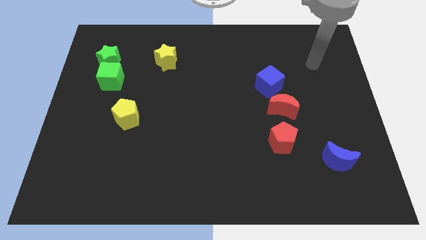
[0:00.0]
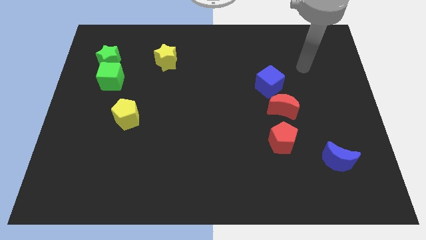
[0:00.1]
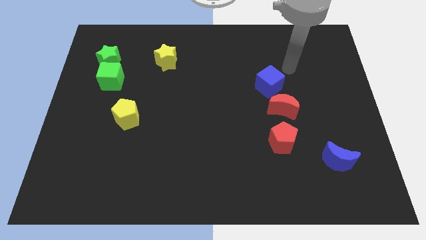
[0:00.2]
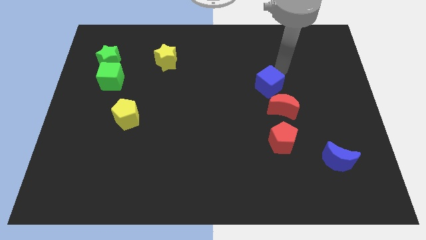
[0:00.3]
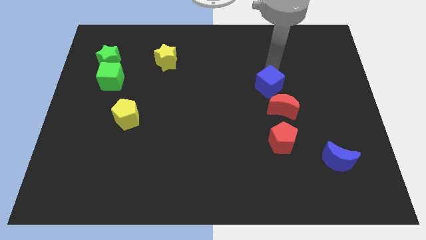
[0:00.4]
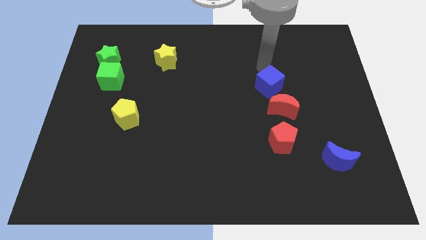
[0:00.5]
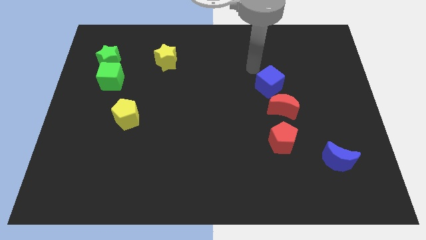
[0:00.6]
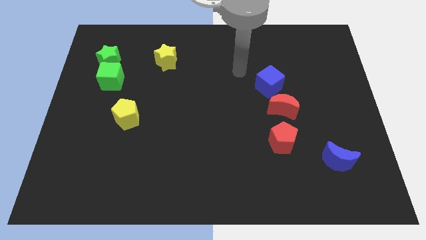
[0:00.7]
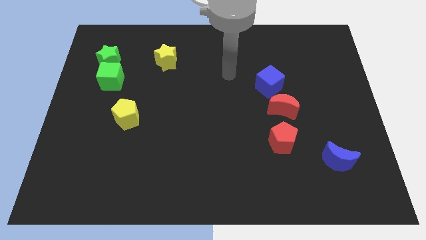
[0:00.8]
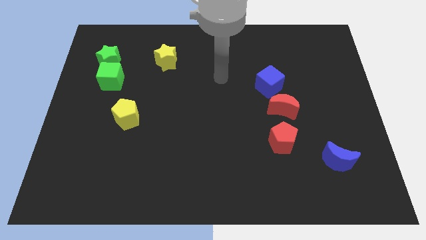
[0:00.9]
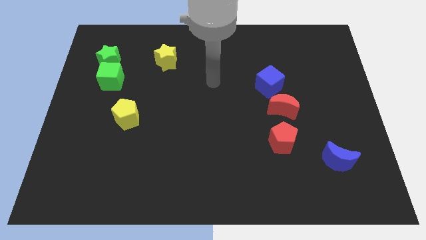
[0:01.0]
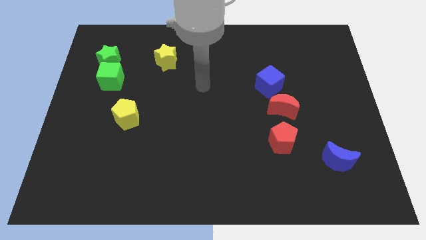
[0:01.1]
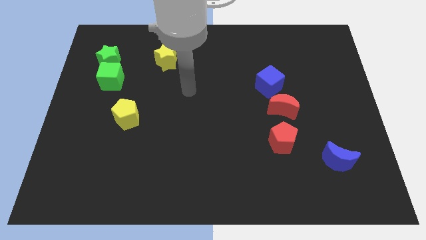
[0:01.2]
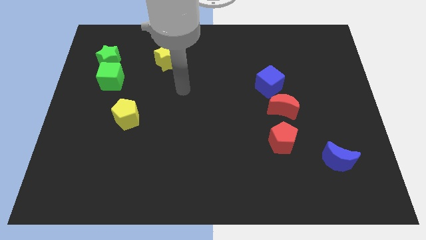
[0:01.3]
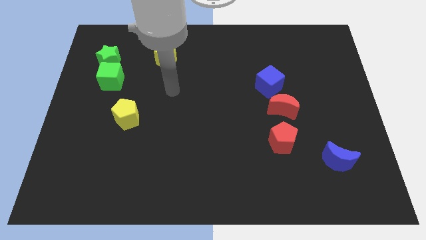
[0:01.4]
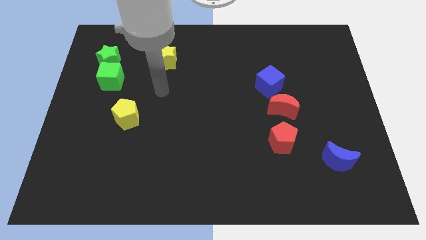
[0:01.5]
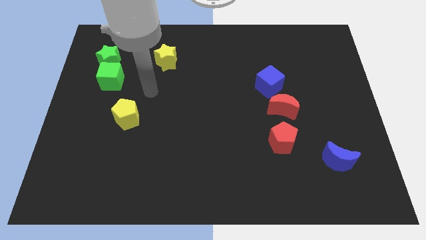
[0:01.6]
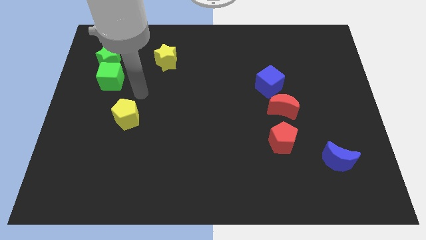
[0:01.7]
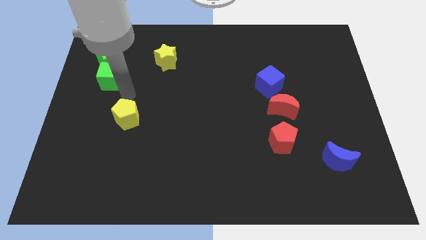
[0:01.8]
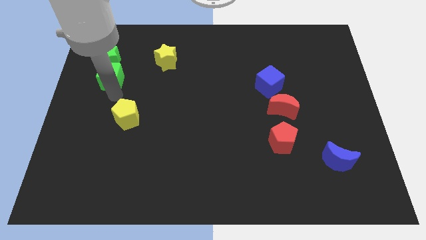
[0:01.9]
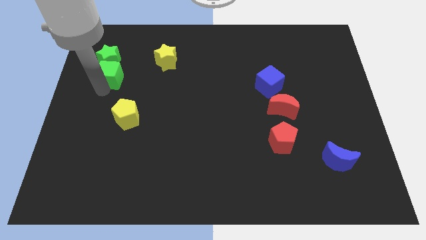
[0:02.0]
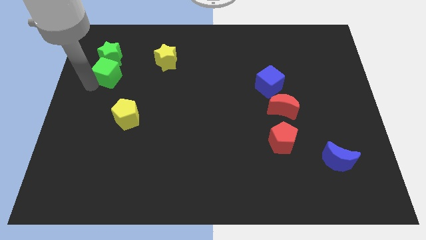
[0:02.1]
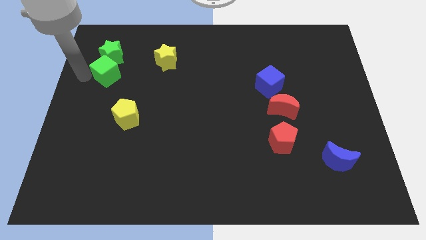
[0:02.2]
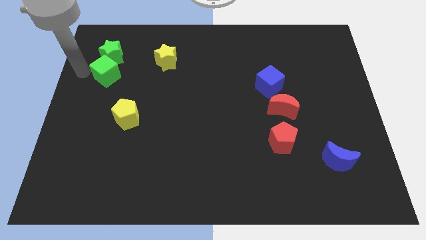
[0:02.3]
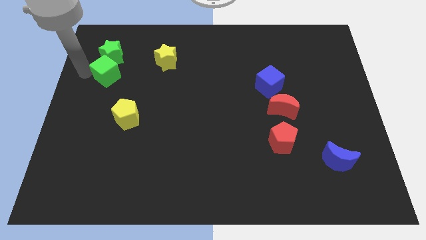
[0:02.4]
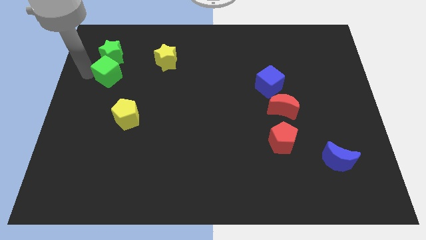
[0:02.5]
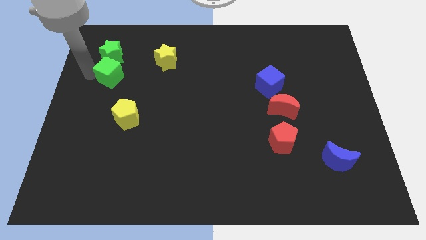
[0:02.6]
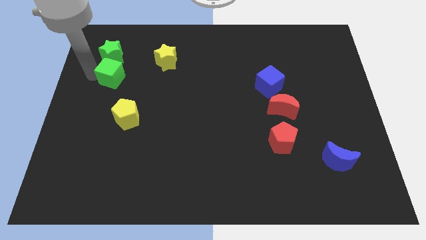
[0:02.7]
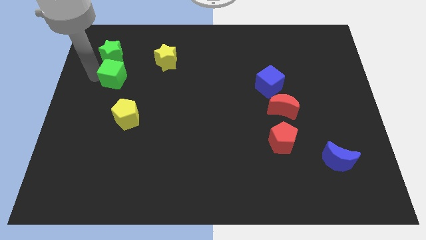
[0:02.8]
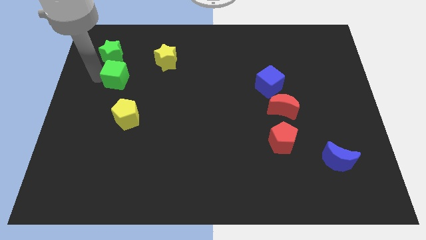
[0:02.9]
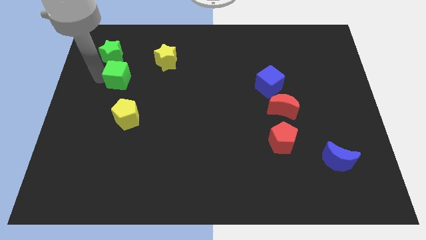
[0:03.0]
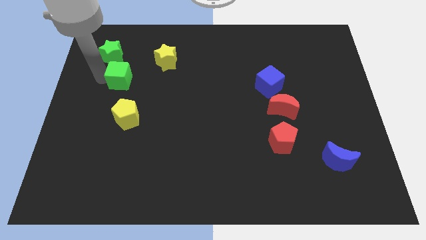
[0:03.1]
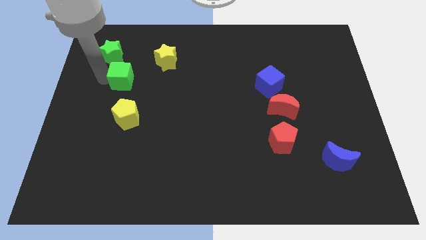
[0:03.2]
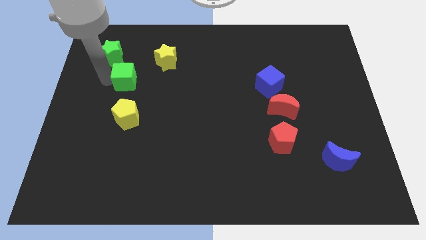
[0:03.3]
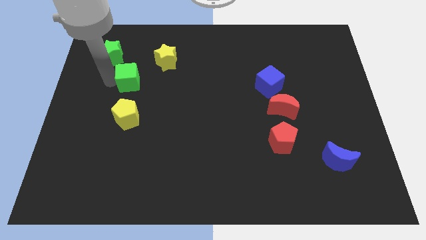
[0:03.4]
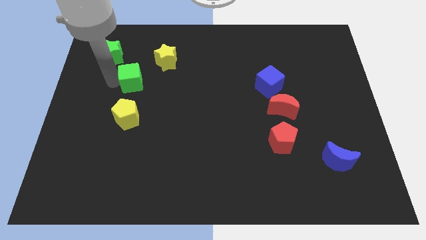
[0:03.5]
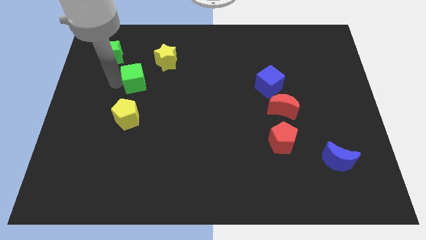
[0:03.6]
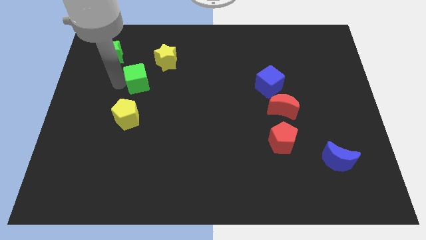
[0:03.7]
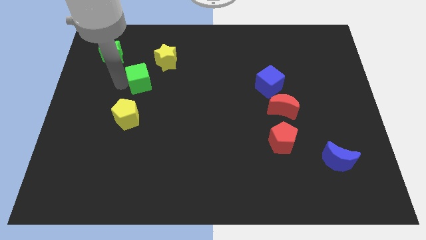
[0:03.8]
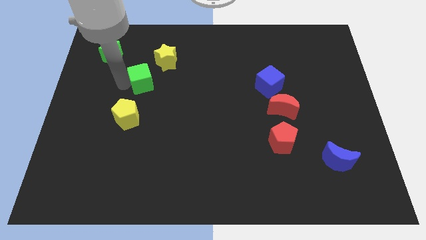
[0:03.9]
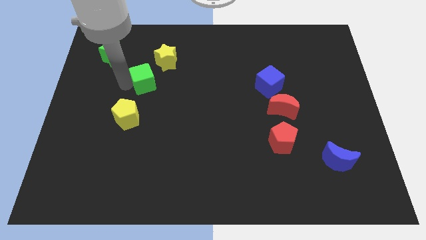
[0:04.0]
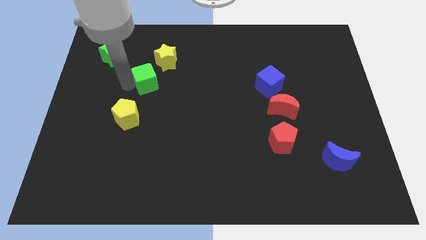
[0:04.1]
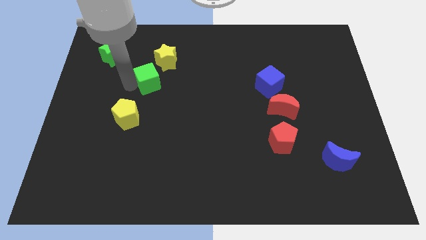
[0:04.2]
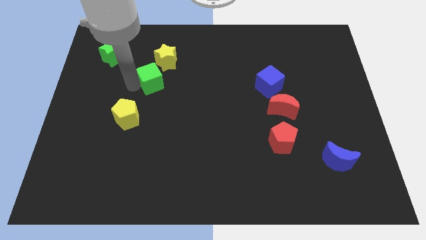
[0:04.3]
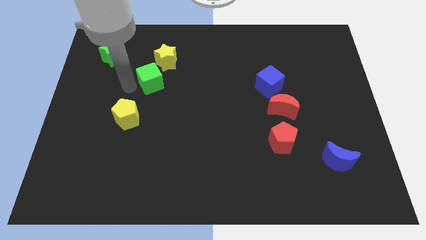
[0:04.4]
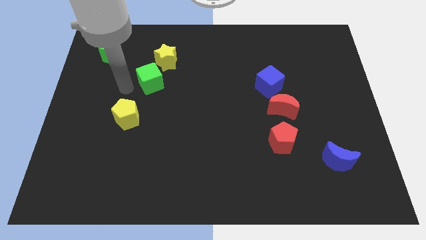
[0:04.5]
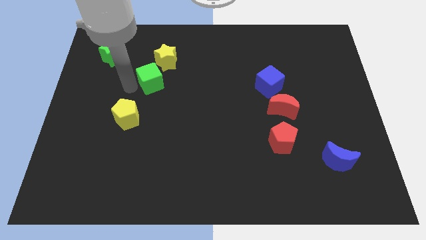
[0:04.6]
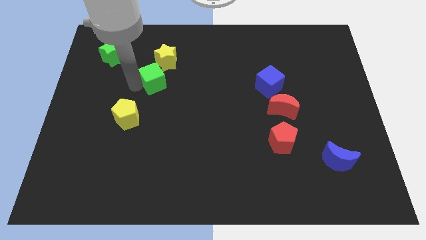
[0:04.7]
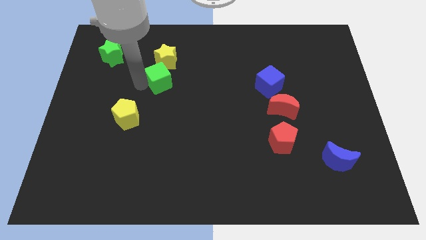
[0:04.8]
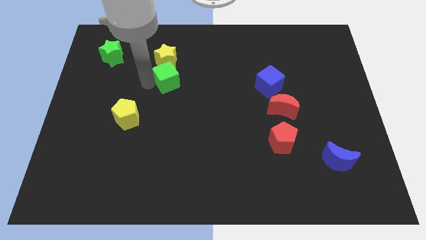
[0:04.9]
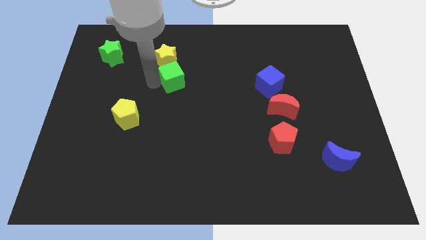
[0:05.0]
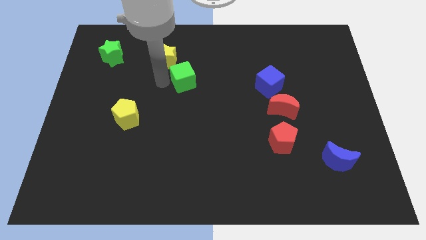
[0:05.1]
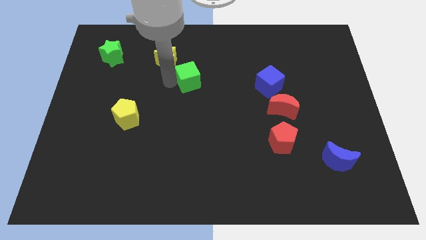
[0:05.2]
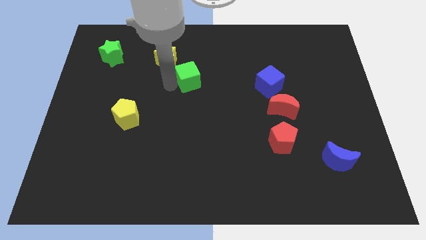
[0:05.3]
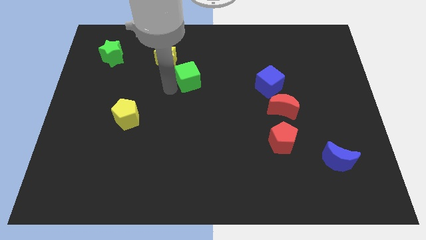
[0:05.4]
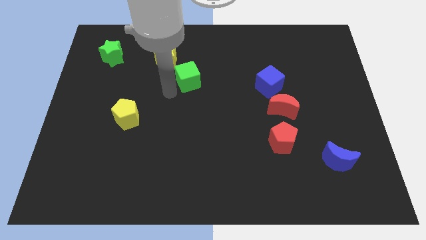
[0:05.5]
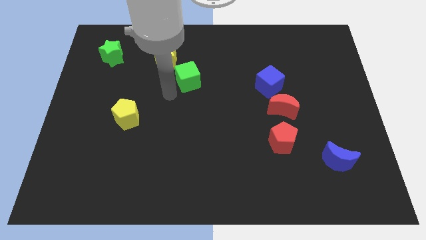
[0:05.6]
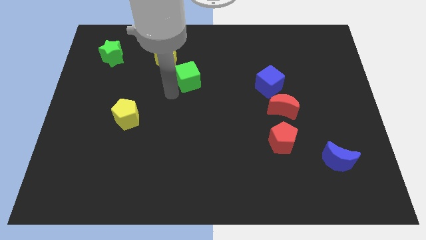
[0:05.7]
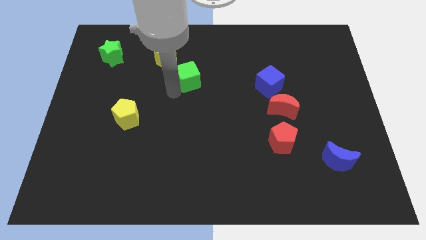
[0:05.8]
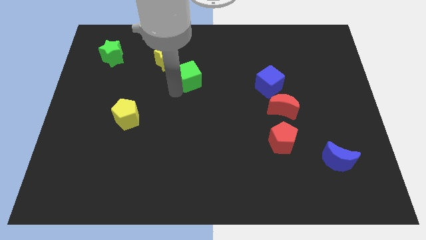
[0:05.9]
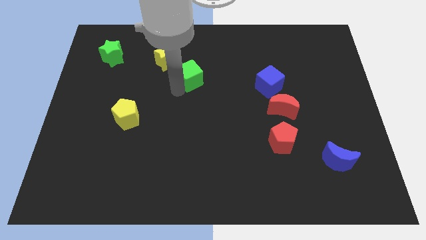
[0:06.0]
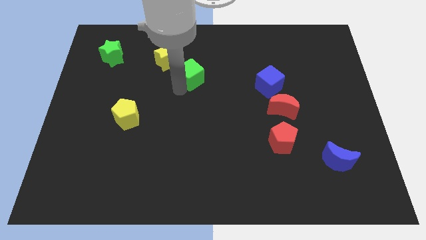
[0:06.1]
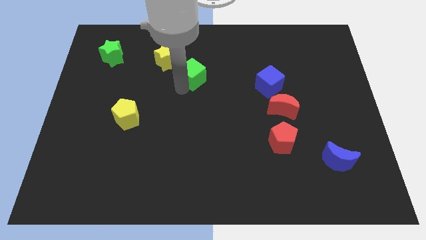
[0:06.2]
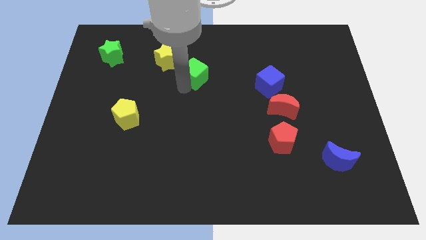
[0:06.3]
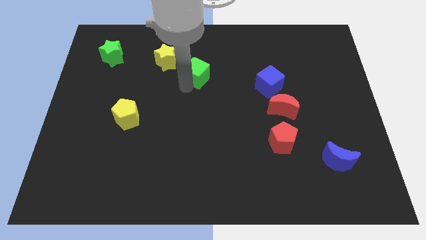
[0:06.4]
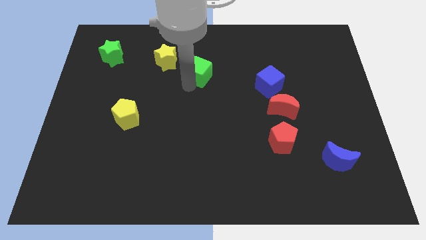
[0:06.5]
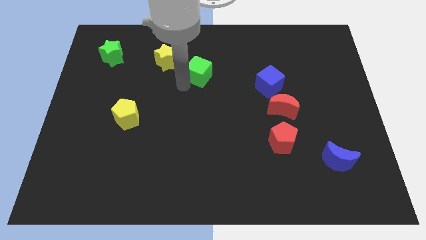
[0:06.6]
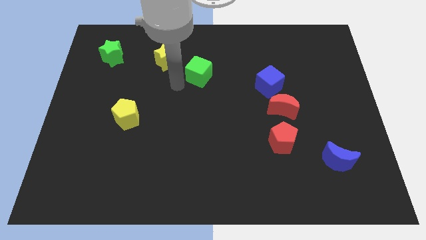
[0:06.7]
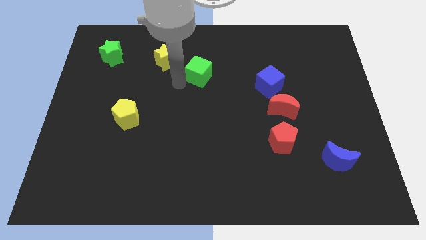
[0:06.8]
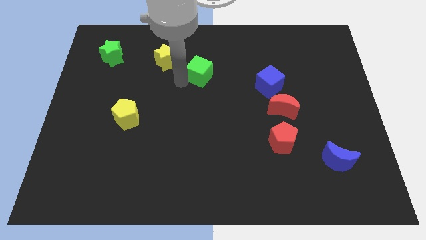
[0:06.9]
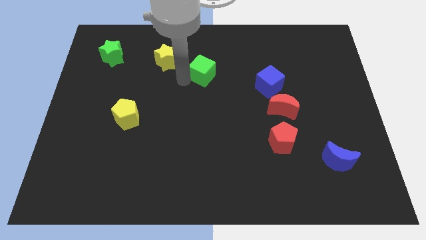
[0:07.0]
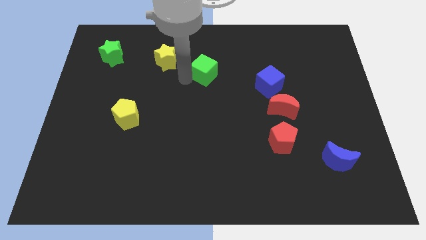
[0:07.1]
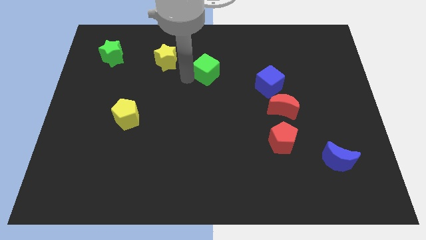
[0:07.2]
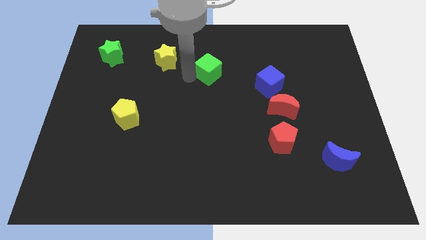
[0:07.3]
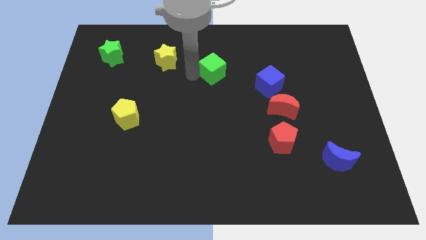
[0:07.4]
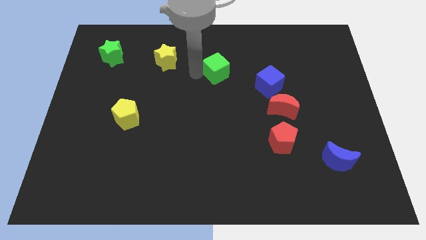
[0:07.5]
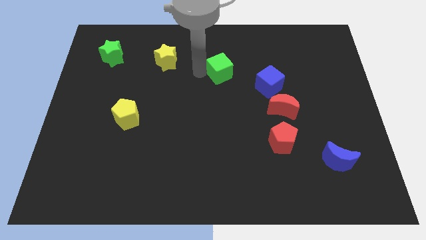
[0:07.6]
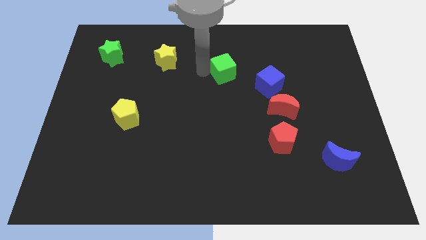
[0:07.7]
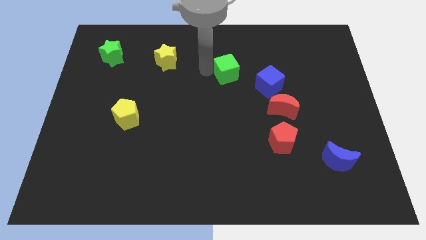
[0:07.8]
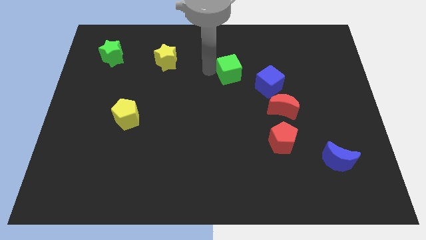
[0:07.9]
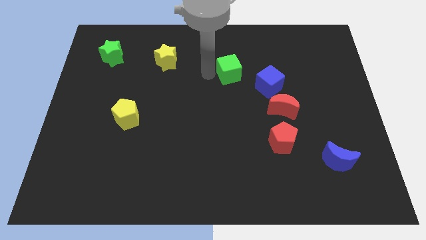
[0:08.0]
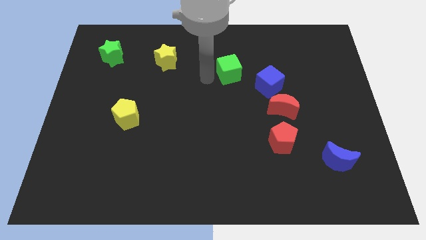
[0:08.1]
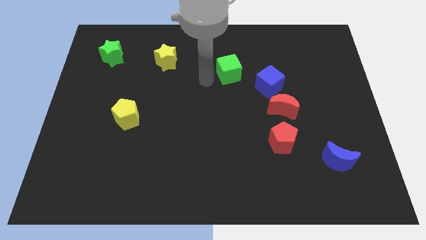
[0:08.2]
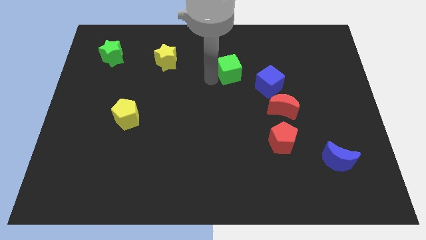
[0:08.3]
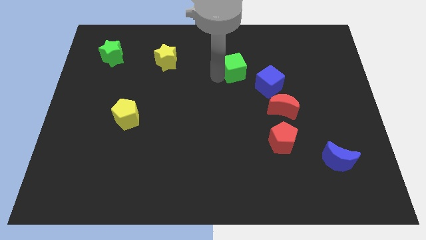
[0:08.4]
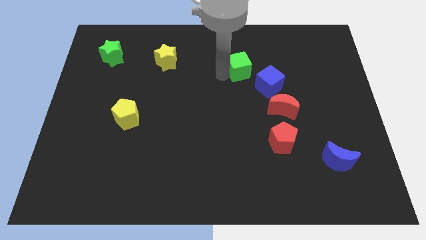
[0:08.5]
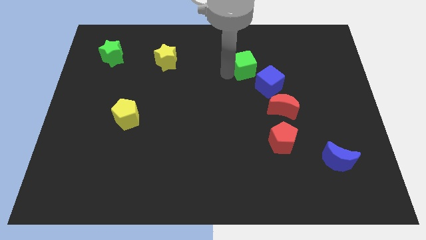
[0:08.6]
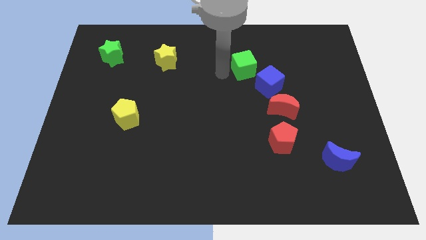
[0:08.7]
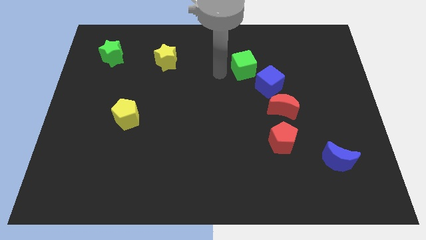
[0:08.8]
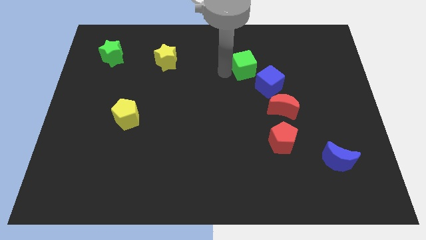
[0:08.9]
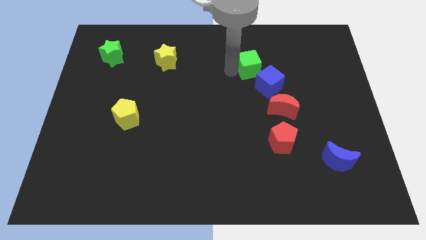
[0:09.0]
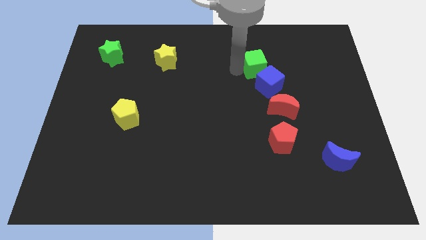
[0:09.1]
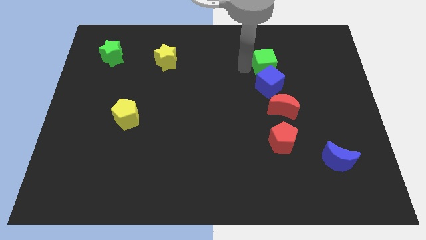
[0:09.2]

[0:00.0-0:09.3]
put the green cube to the top right side of the blue cube
